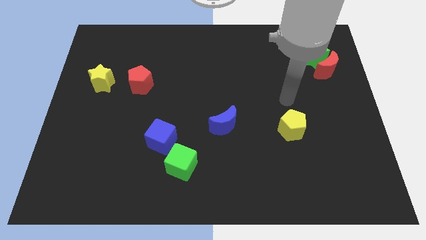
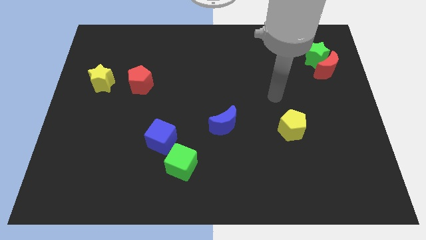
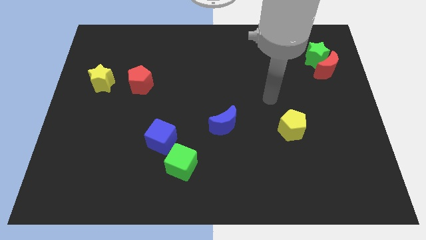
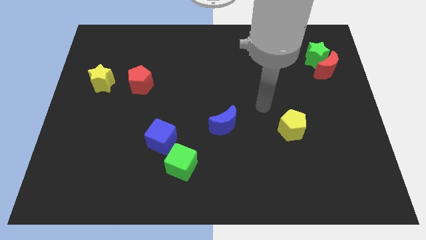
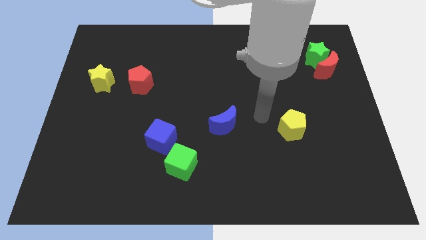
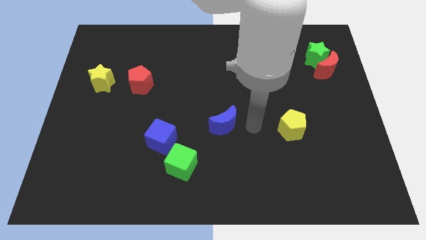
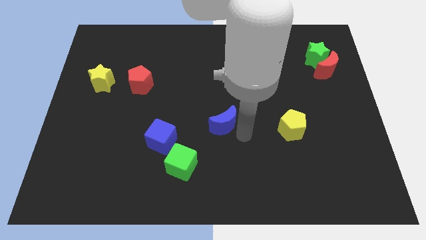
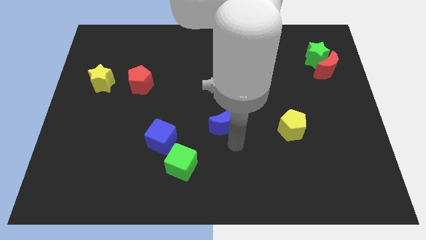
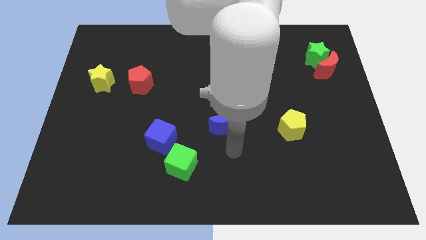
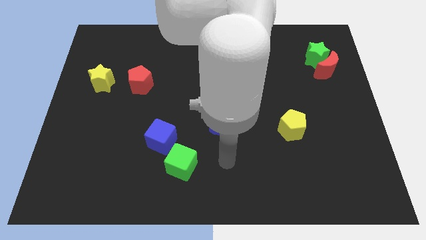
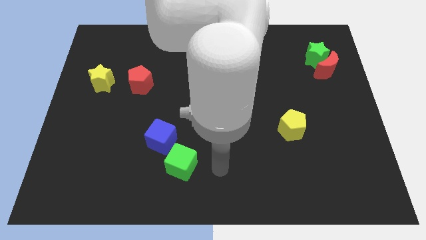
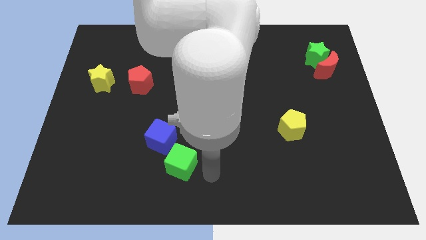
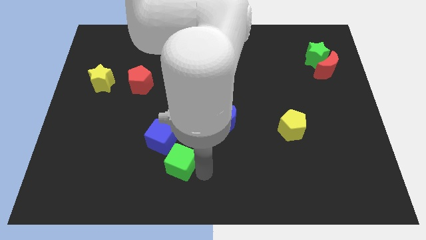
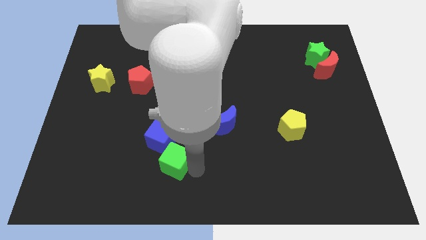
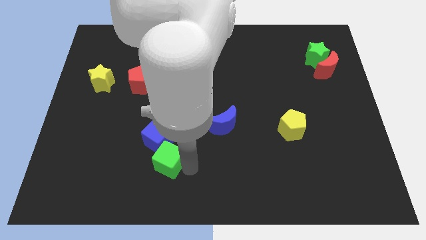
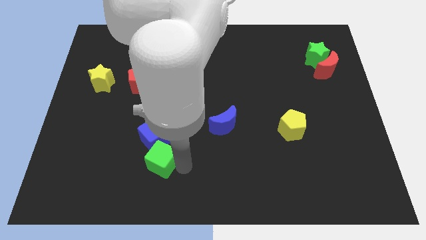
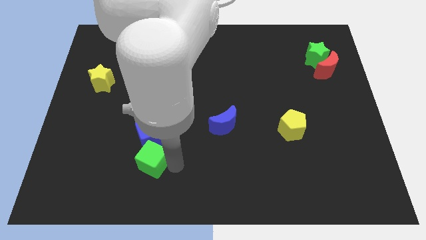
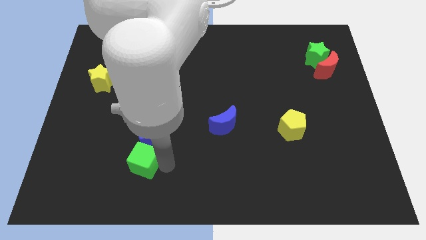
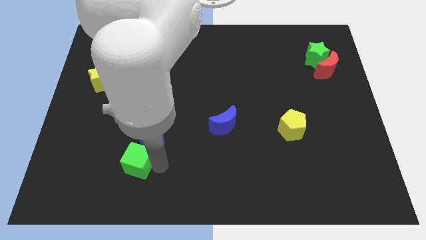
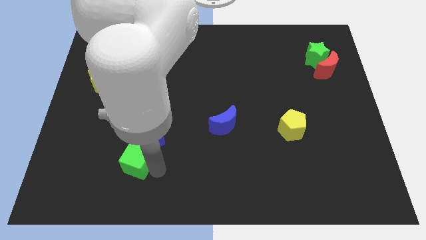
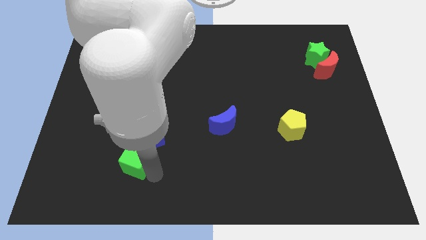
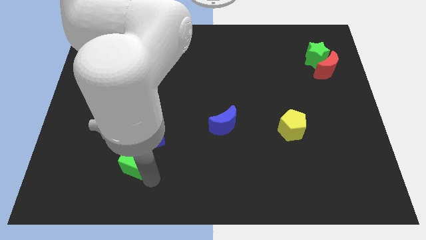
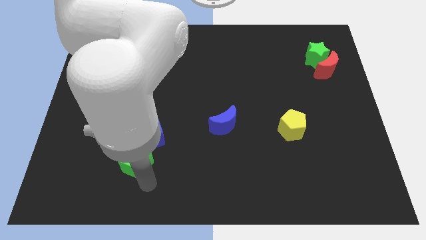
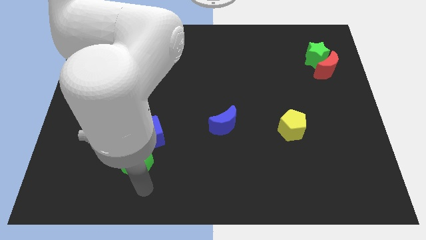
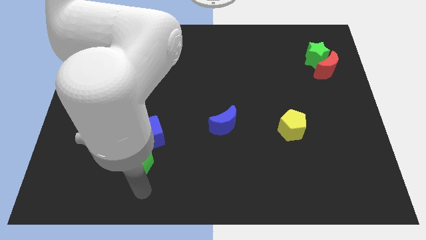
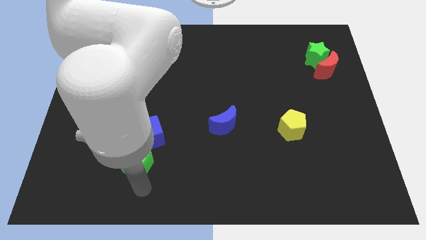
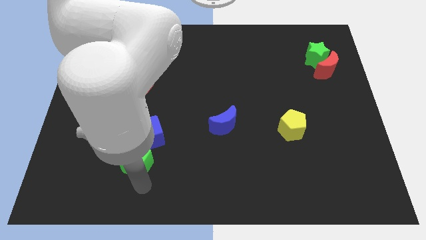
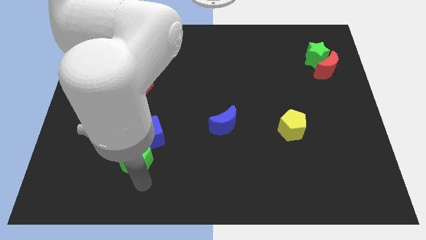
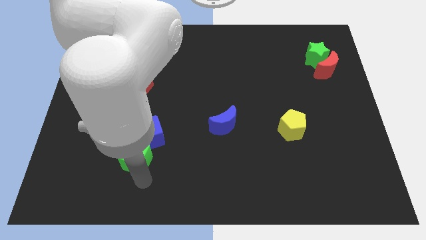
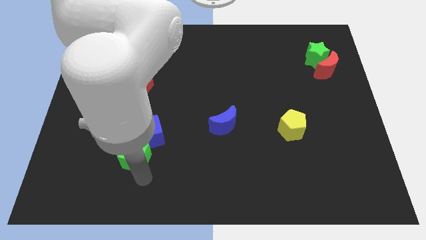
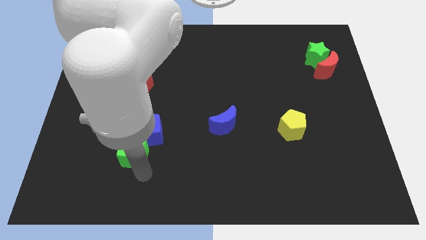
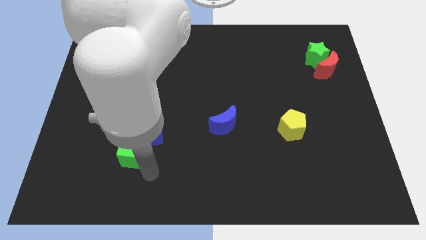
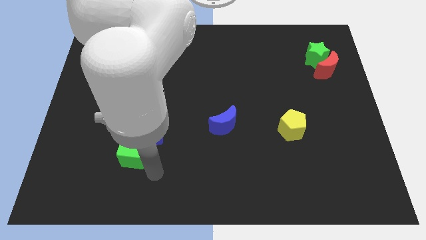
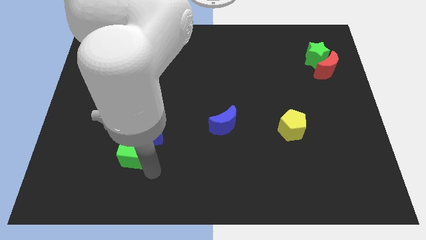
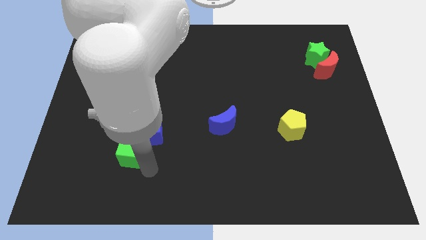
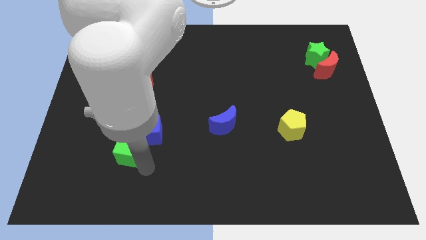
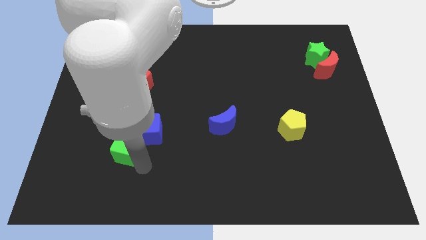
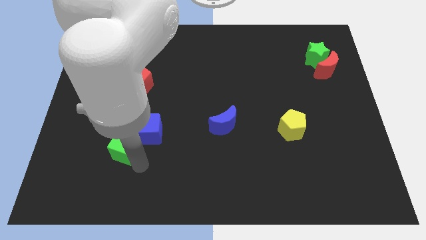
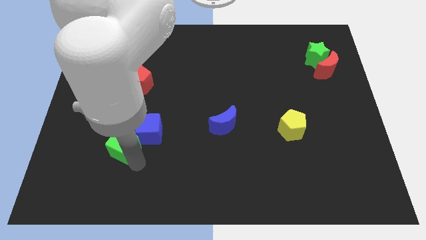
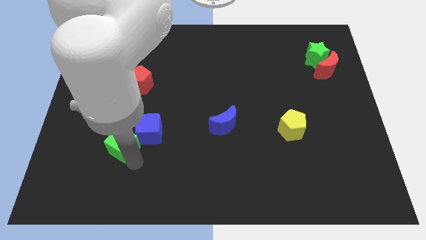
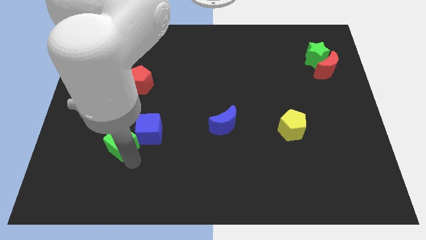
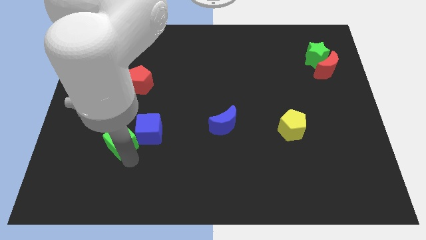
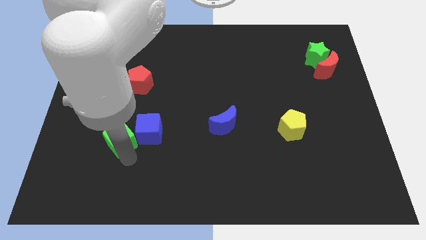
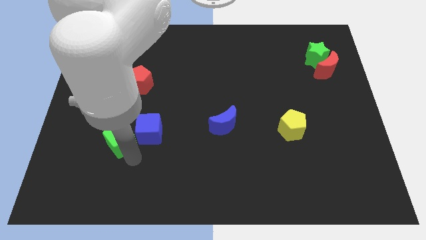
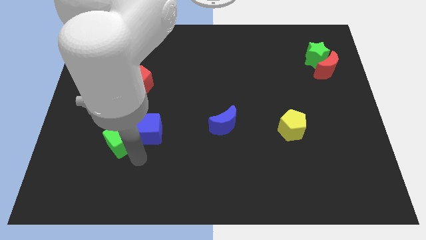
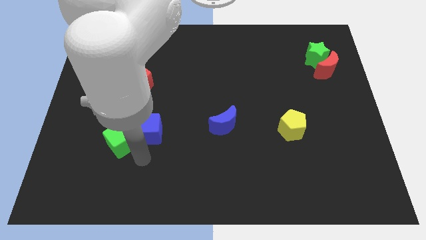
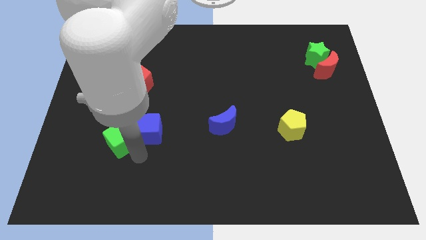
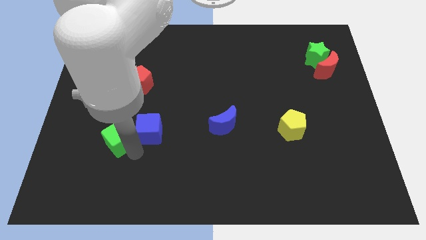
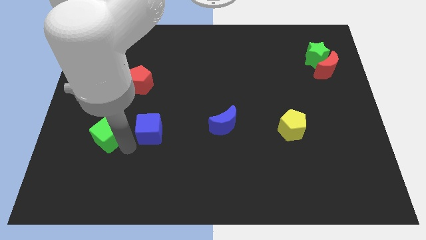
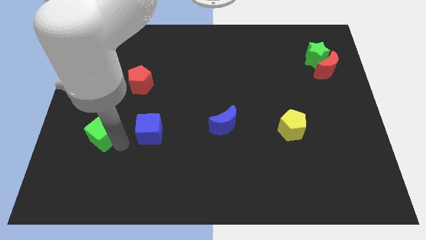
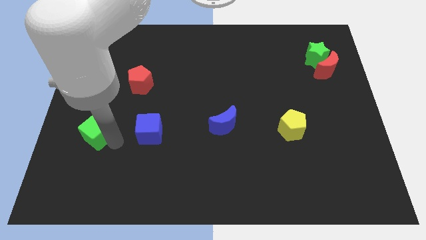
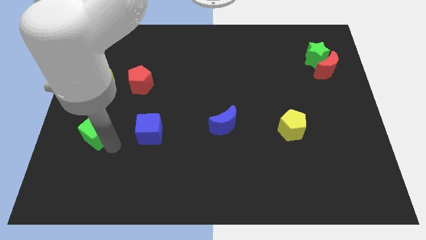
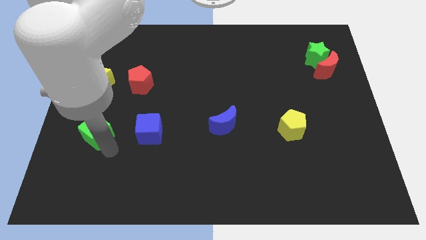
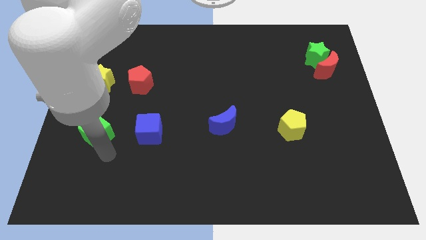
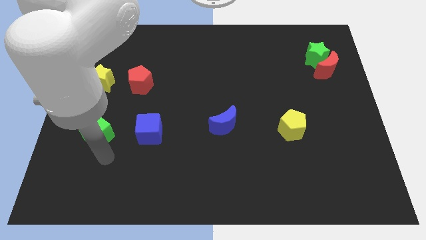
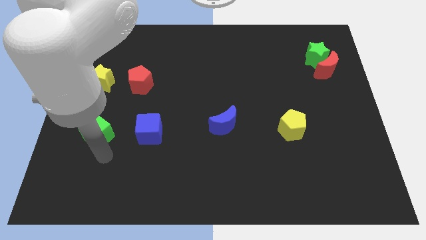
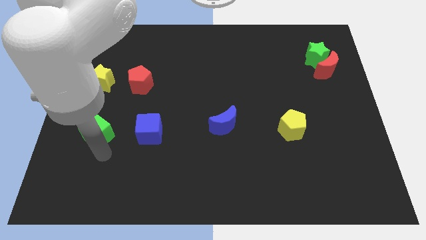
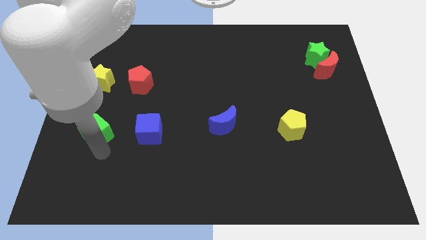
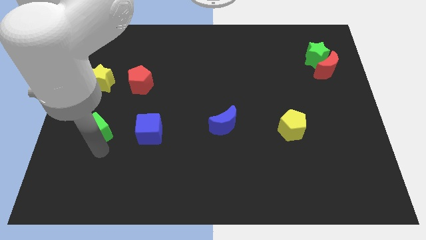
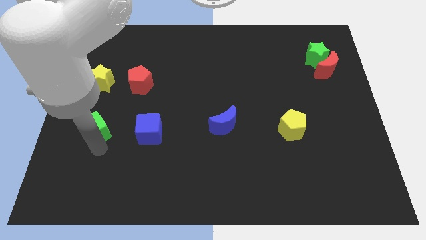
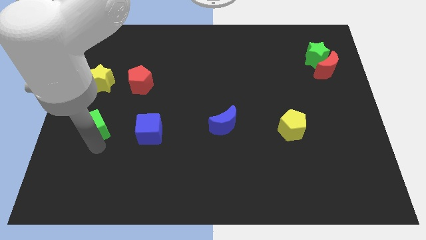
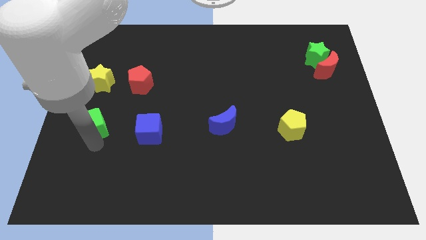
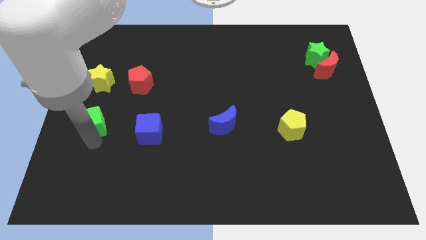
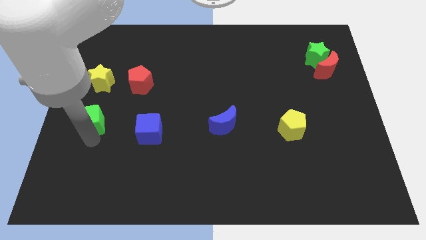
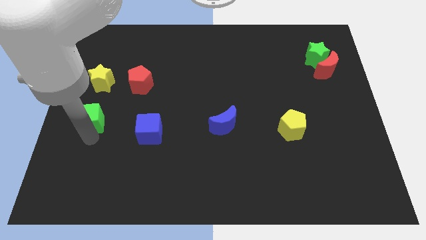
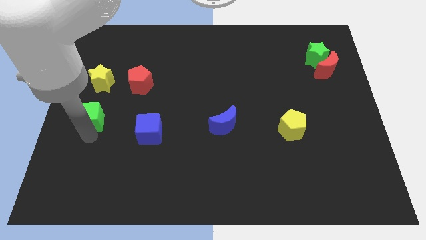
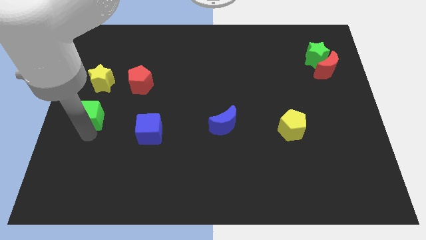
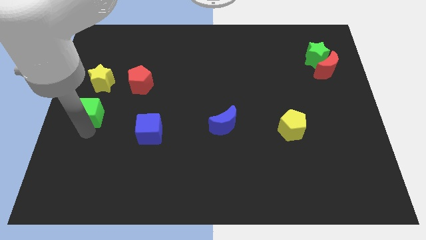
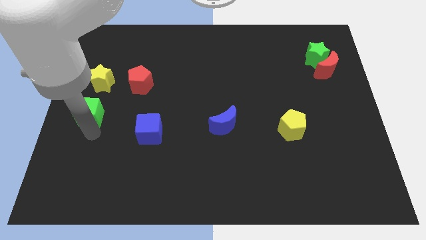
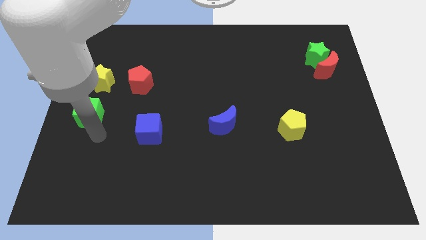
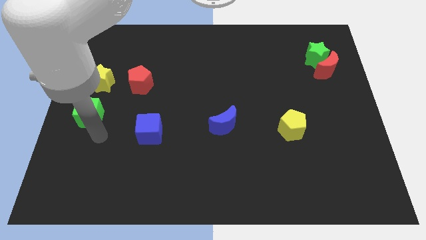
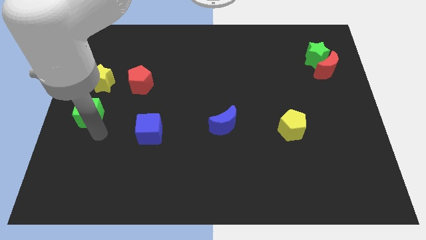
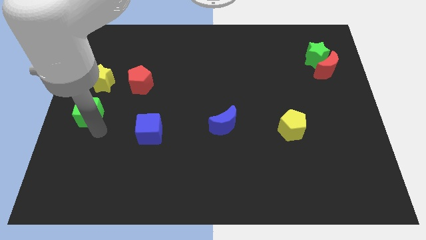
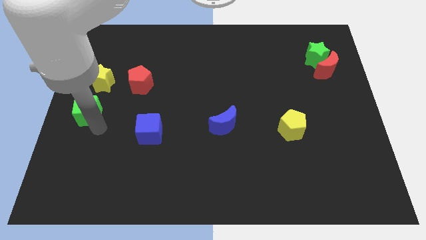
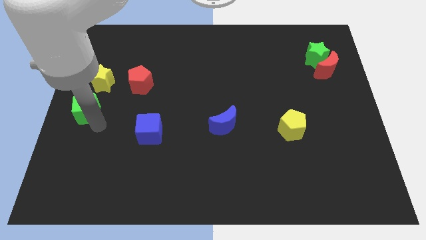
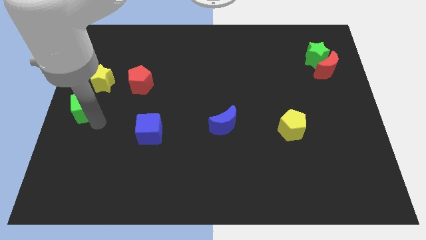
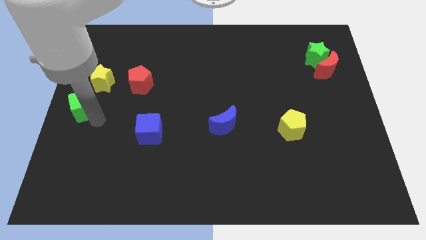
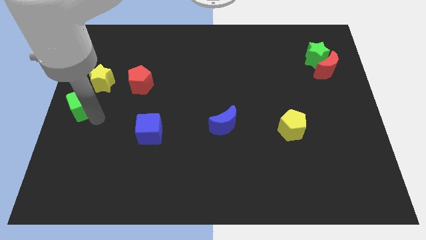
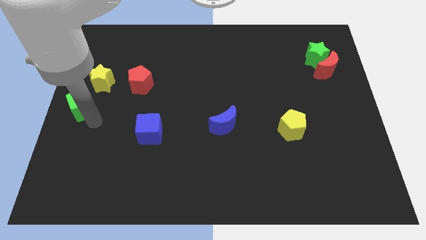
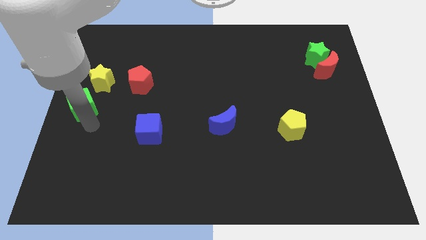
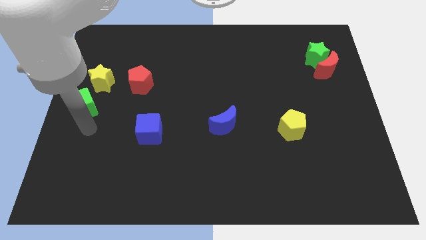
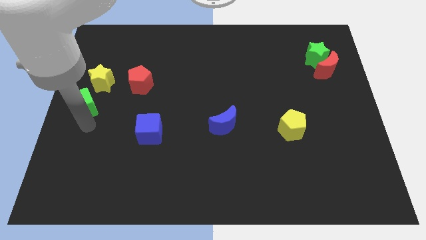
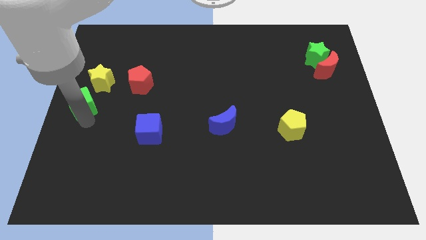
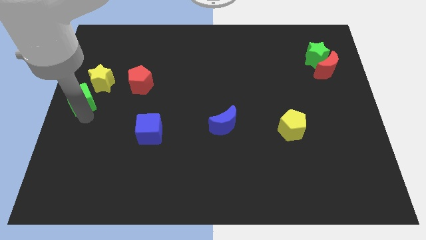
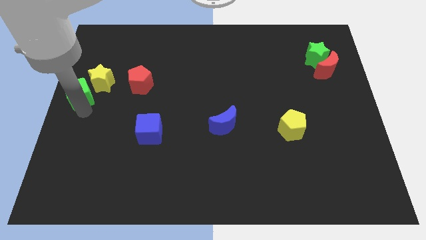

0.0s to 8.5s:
move the green cube left of the red pentagon
